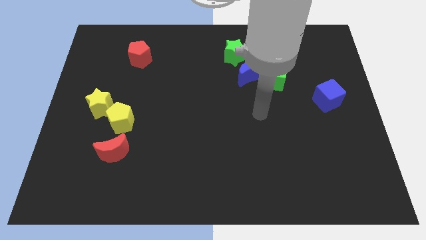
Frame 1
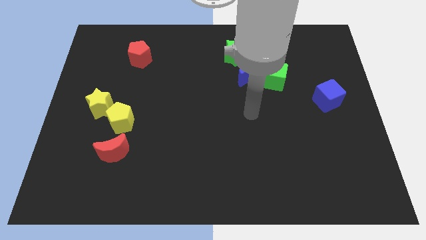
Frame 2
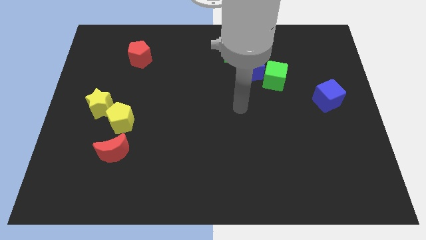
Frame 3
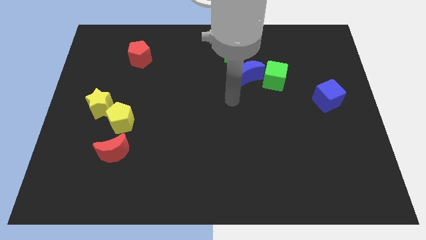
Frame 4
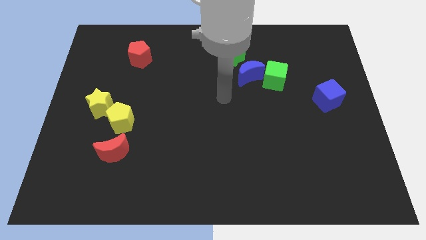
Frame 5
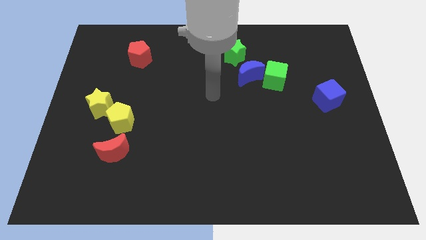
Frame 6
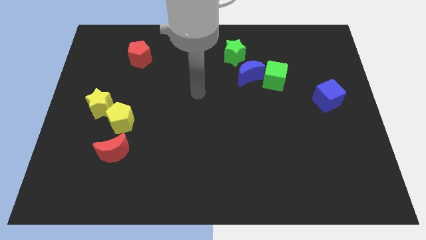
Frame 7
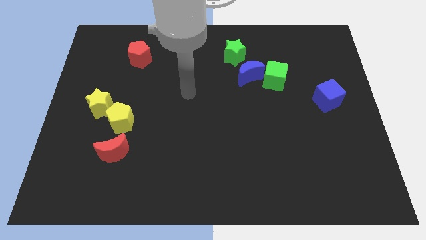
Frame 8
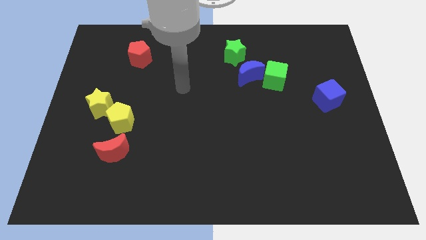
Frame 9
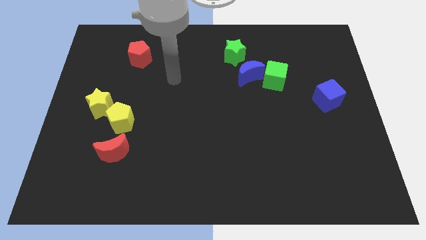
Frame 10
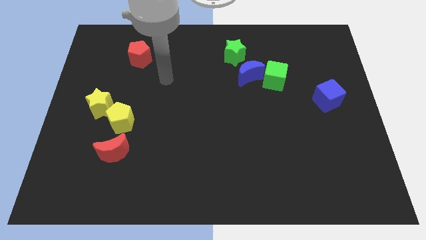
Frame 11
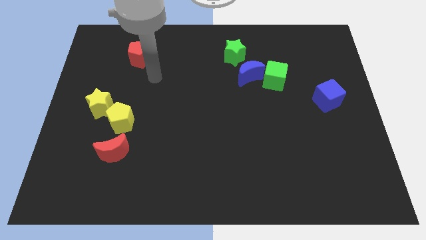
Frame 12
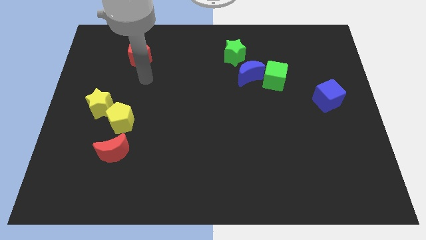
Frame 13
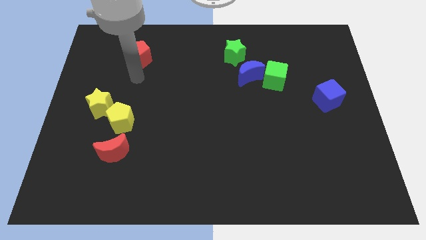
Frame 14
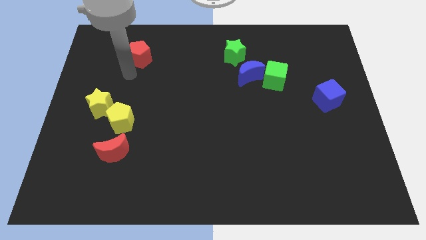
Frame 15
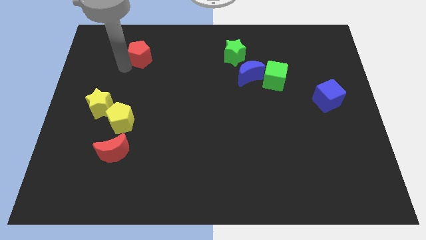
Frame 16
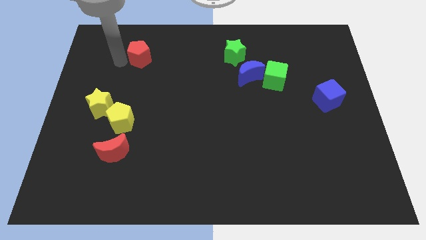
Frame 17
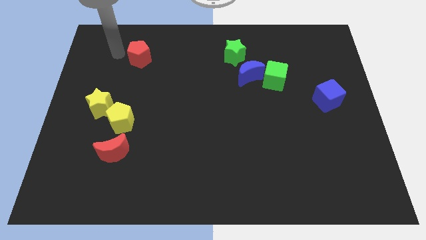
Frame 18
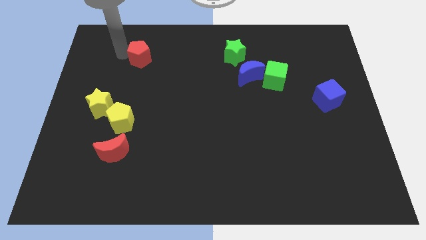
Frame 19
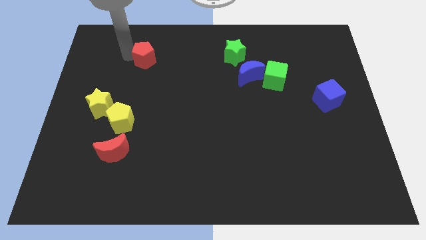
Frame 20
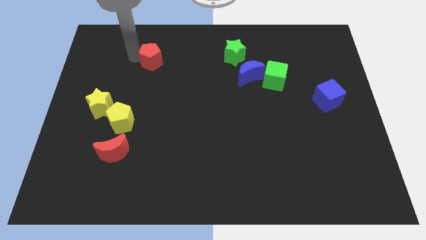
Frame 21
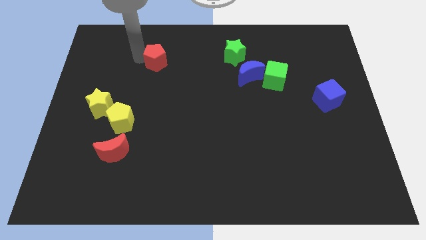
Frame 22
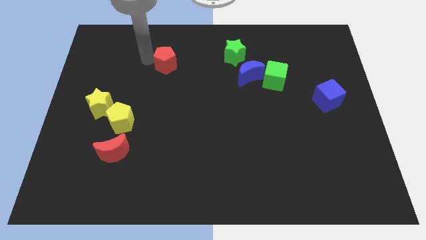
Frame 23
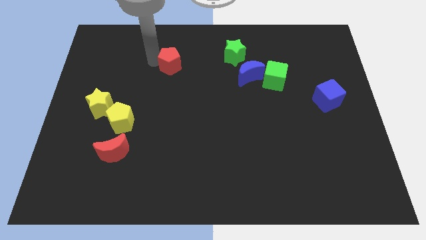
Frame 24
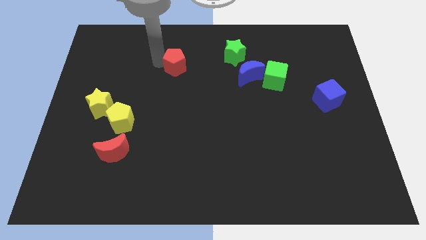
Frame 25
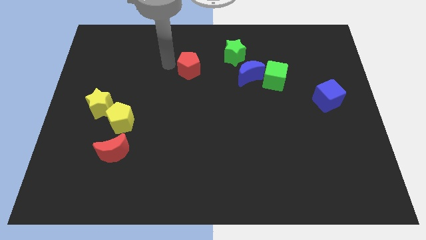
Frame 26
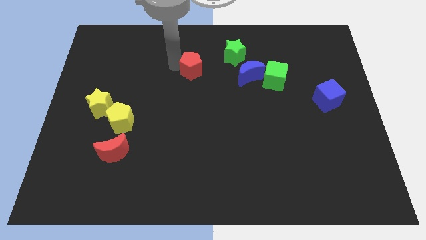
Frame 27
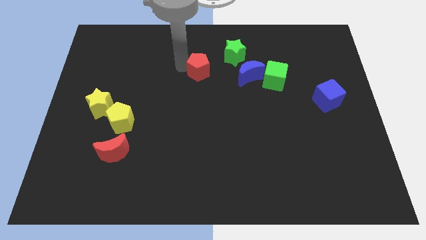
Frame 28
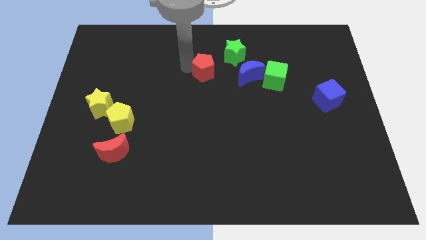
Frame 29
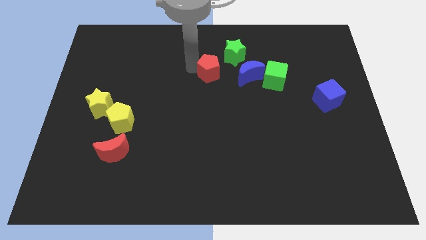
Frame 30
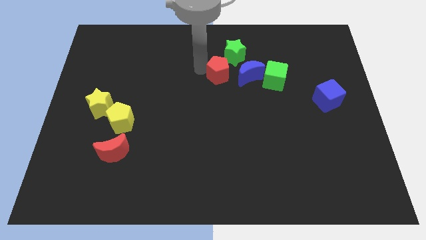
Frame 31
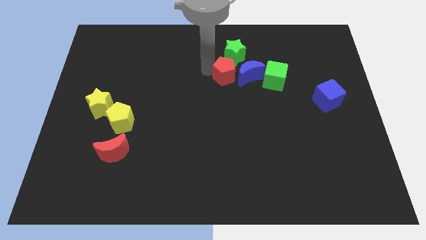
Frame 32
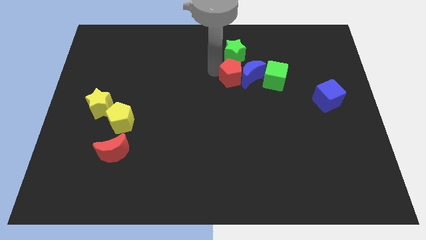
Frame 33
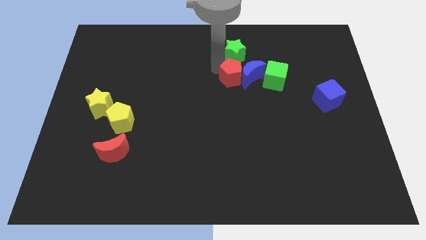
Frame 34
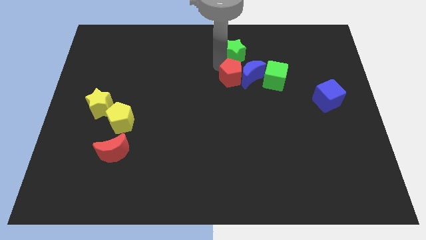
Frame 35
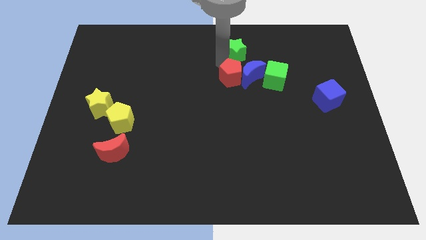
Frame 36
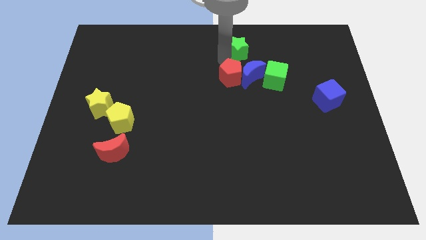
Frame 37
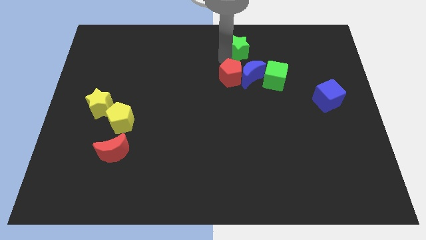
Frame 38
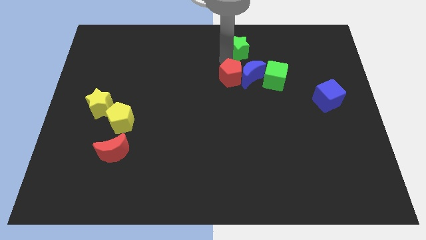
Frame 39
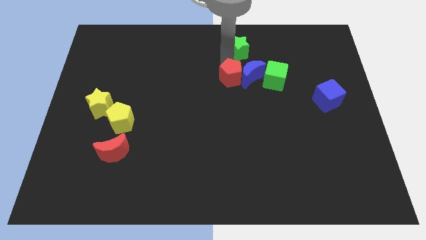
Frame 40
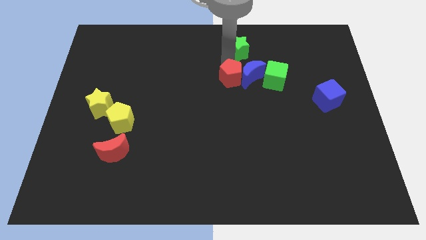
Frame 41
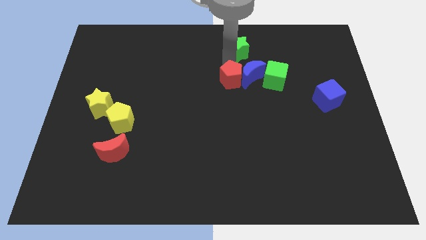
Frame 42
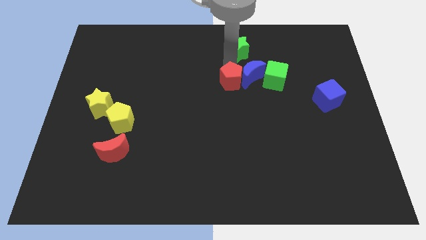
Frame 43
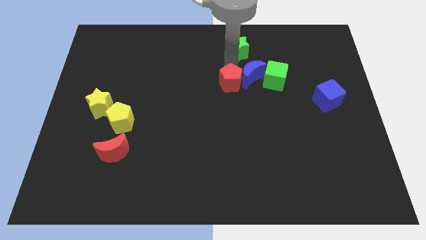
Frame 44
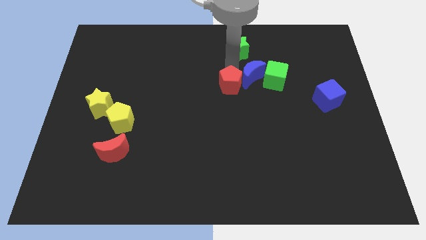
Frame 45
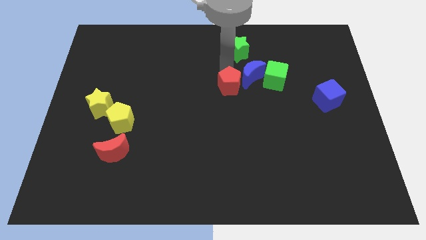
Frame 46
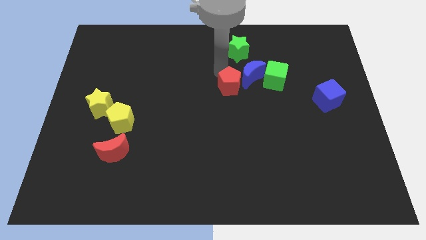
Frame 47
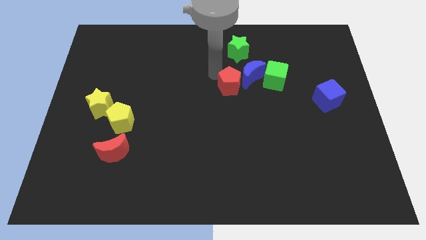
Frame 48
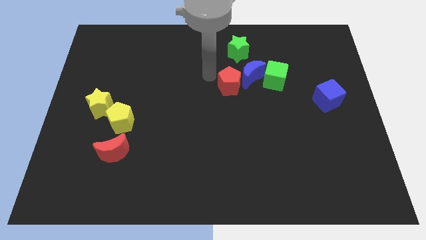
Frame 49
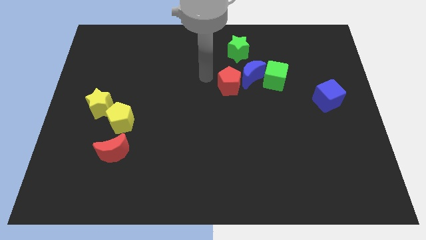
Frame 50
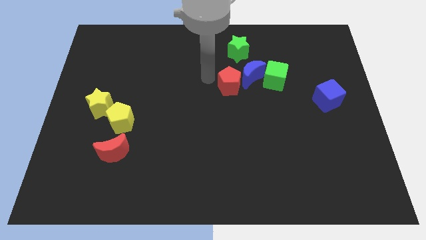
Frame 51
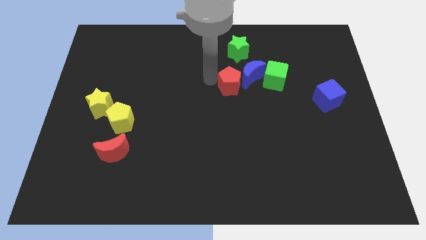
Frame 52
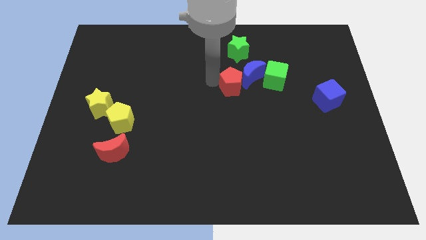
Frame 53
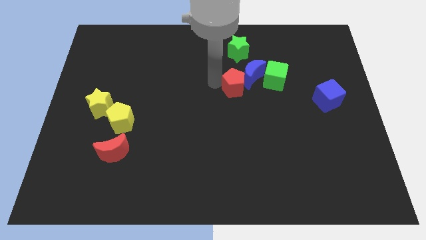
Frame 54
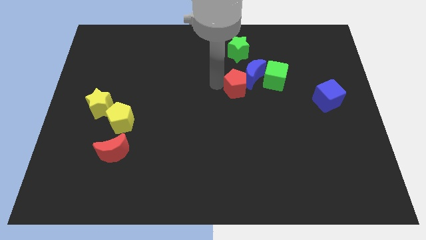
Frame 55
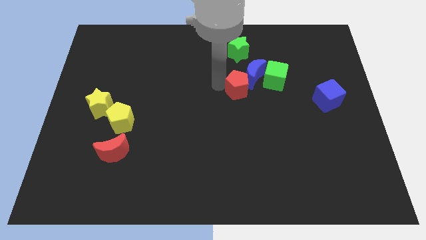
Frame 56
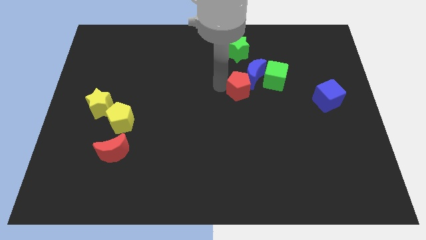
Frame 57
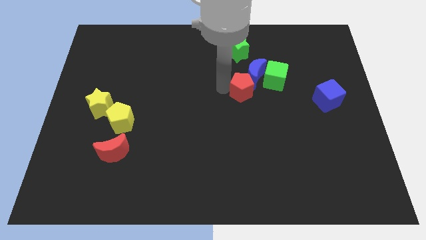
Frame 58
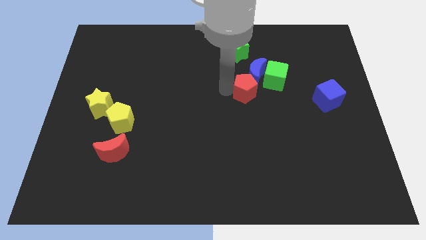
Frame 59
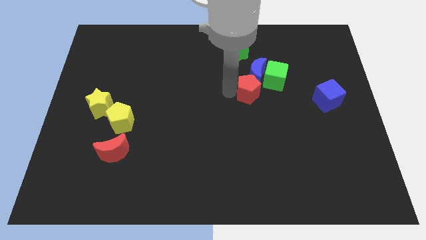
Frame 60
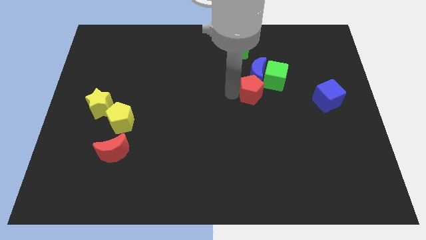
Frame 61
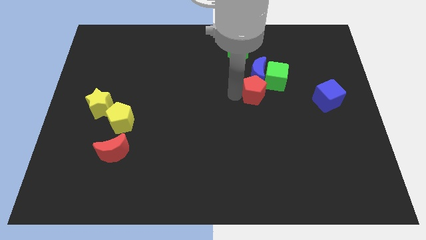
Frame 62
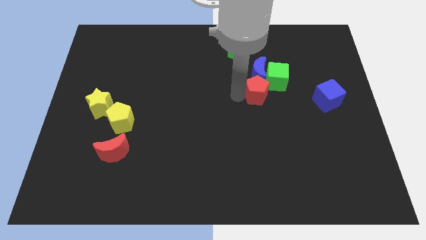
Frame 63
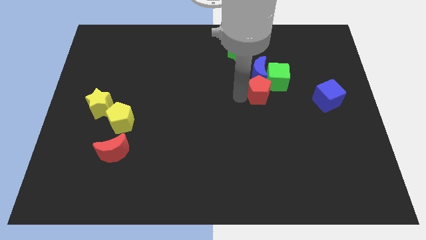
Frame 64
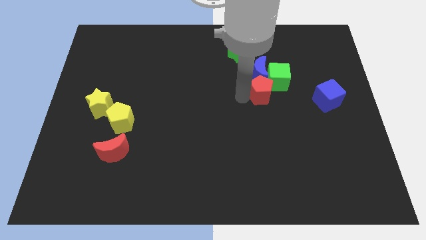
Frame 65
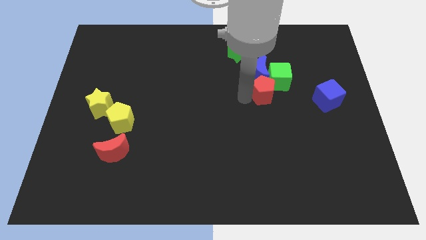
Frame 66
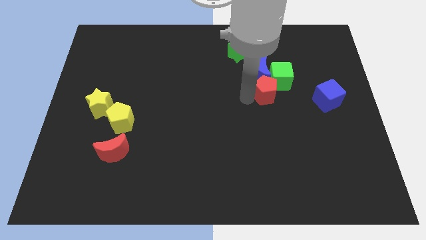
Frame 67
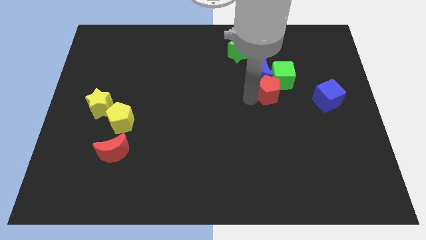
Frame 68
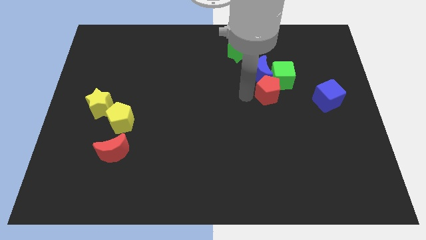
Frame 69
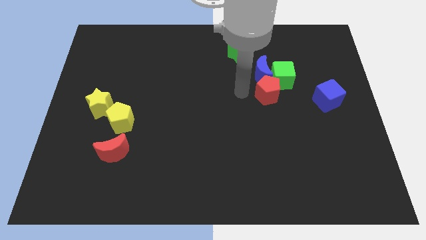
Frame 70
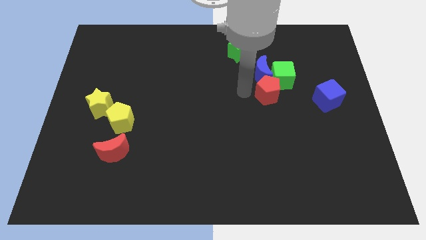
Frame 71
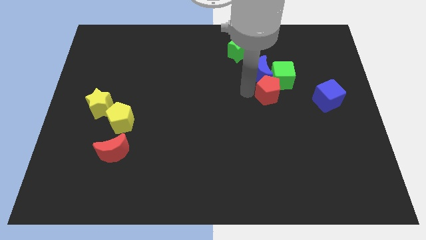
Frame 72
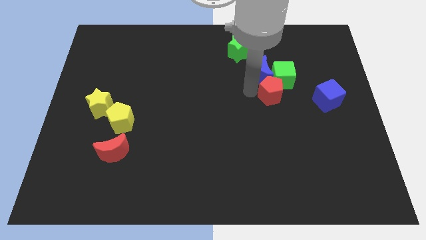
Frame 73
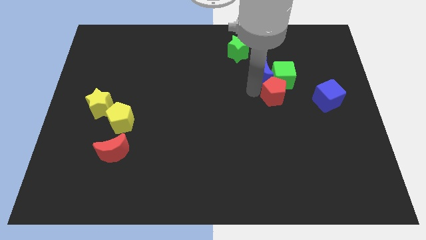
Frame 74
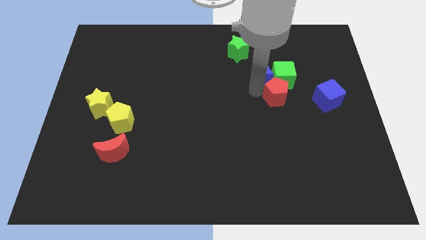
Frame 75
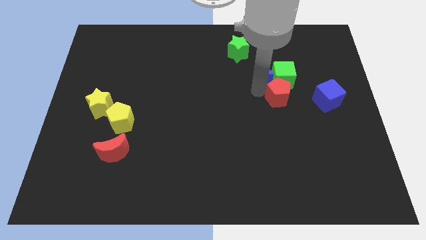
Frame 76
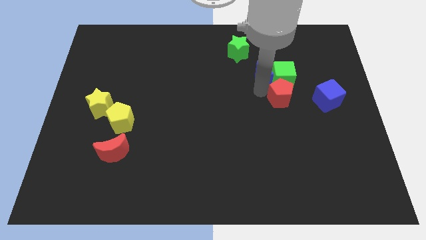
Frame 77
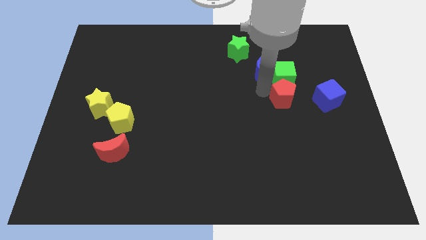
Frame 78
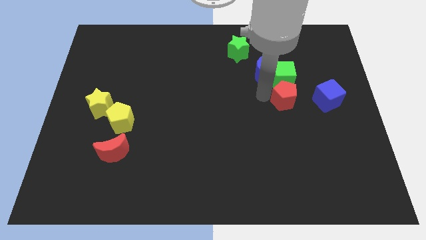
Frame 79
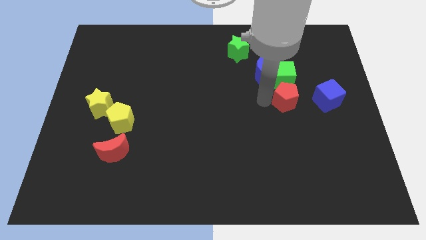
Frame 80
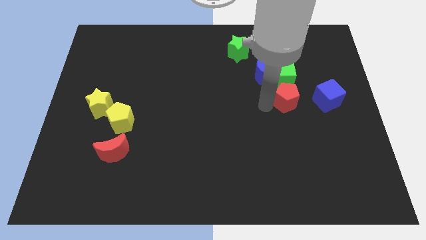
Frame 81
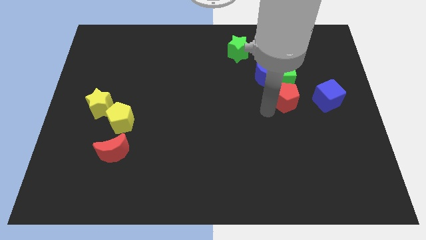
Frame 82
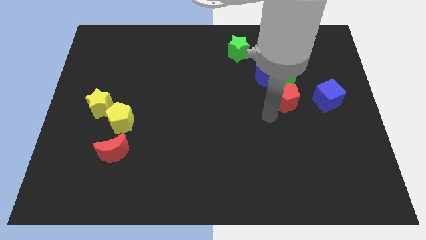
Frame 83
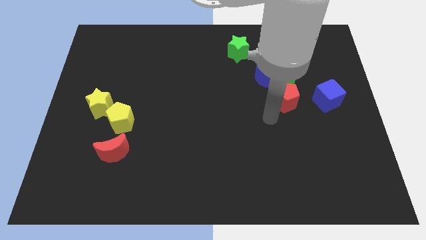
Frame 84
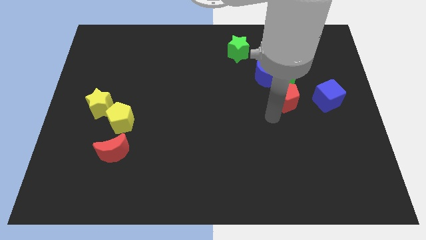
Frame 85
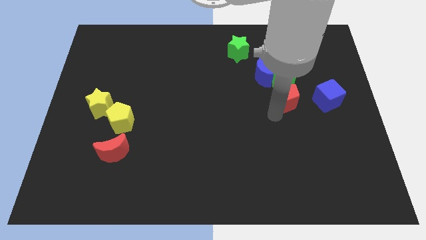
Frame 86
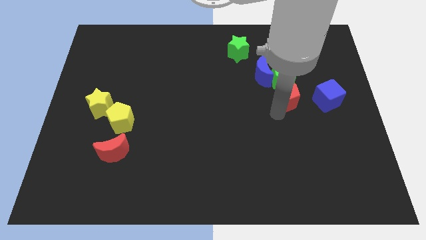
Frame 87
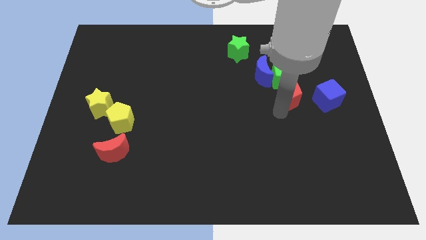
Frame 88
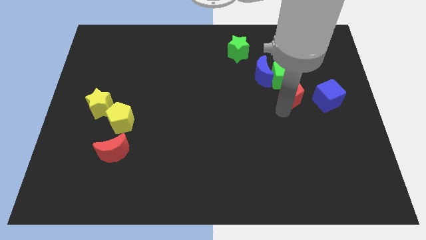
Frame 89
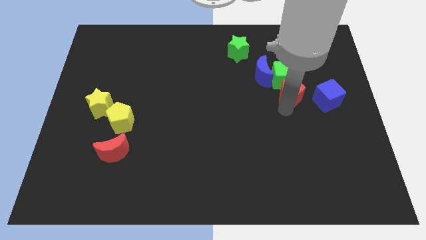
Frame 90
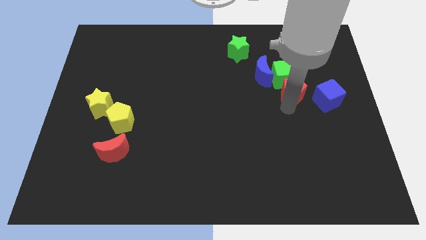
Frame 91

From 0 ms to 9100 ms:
slide the red pentagon to the top left of the blue cube
